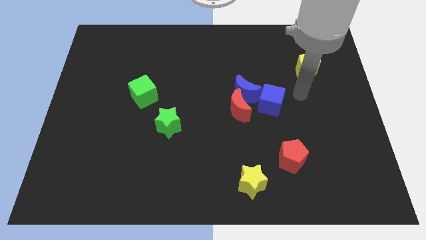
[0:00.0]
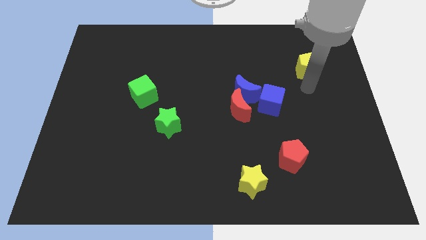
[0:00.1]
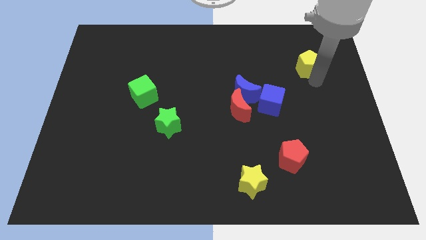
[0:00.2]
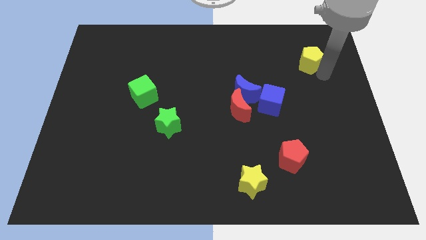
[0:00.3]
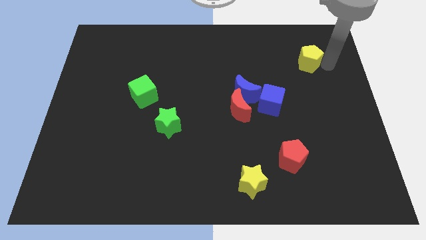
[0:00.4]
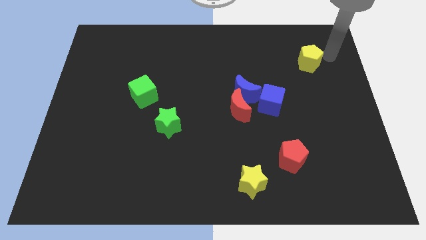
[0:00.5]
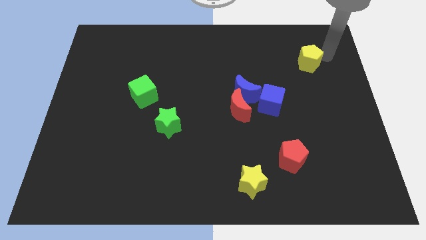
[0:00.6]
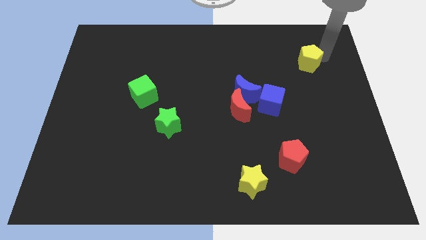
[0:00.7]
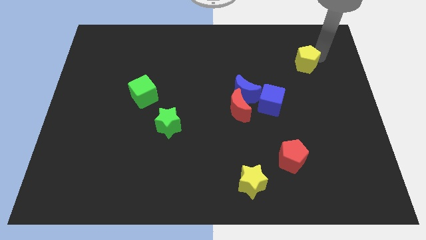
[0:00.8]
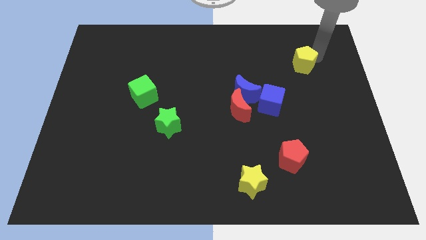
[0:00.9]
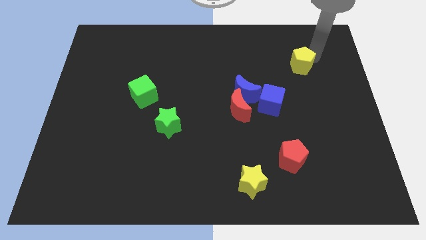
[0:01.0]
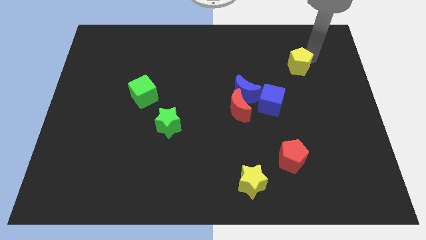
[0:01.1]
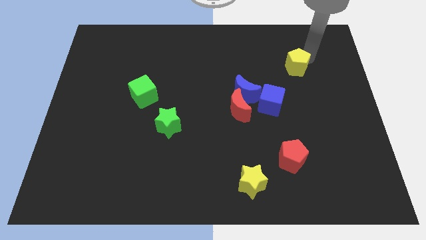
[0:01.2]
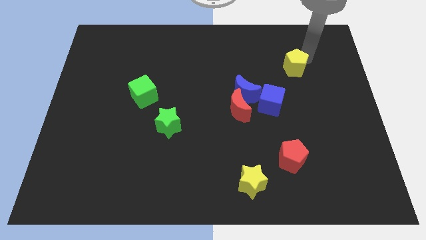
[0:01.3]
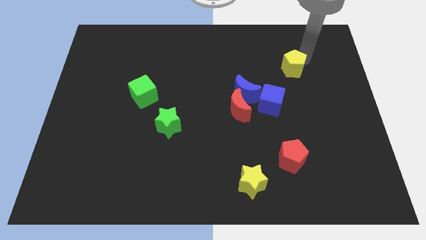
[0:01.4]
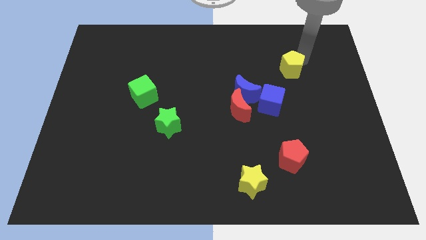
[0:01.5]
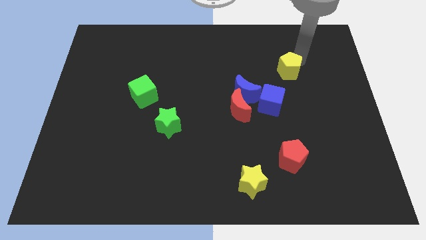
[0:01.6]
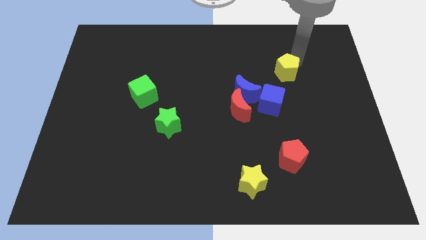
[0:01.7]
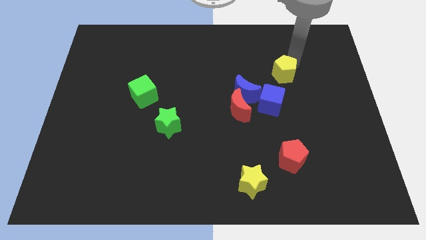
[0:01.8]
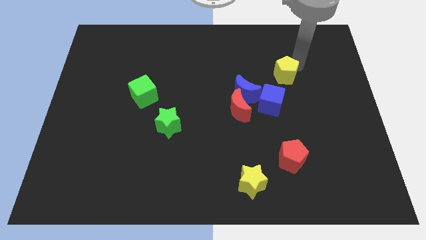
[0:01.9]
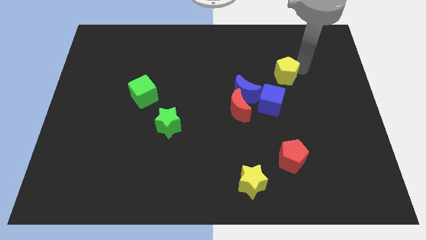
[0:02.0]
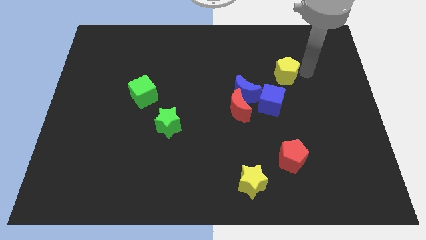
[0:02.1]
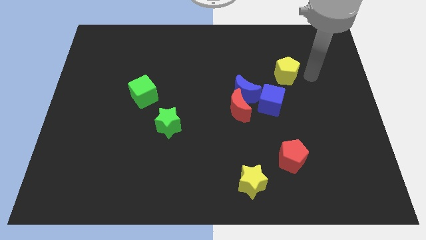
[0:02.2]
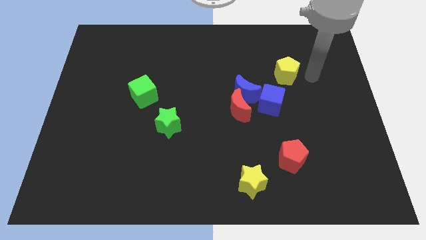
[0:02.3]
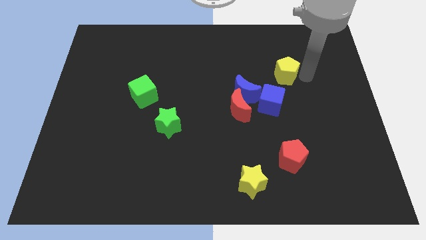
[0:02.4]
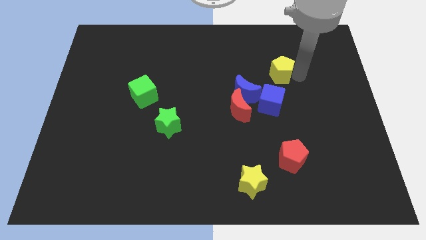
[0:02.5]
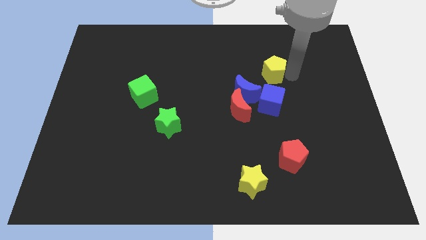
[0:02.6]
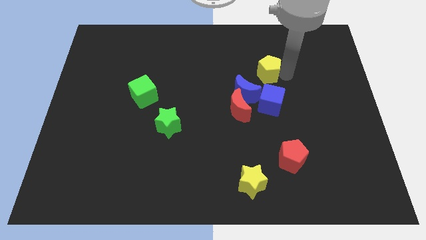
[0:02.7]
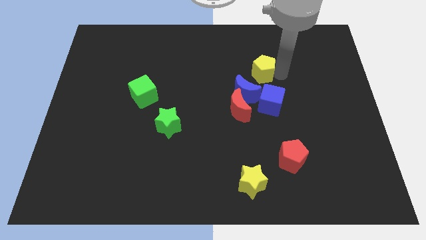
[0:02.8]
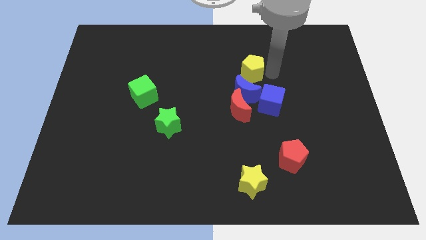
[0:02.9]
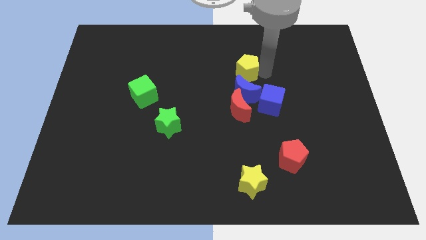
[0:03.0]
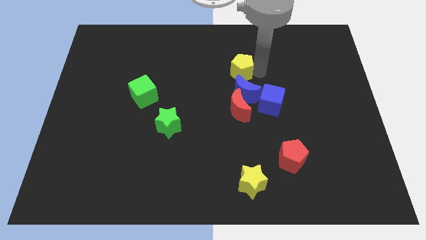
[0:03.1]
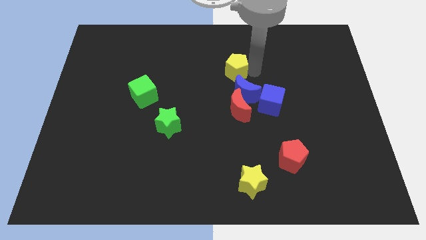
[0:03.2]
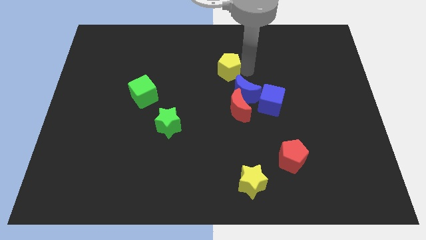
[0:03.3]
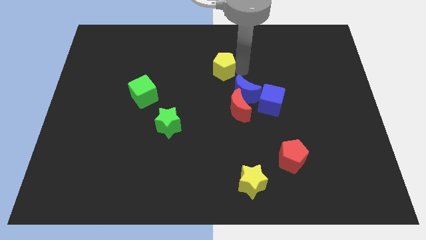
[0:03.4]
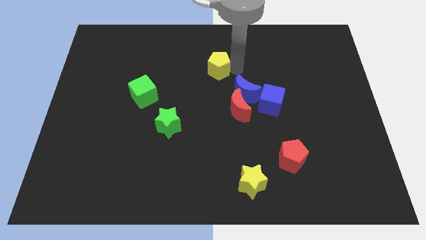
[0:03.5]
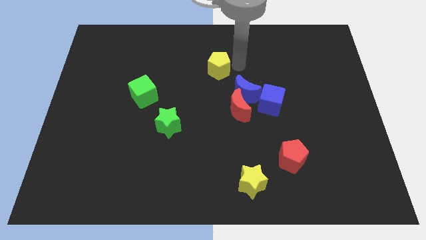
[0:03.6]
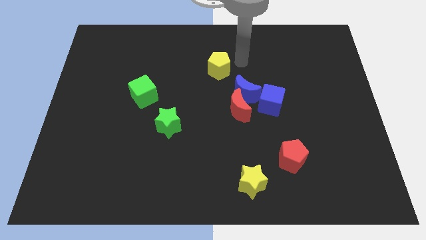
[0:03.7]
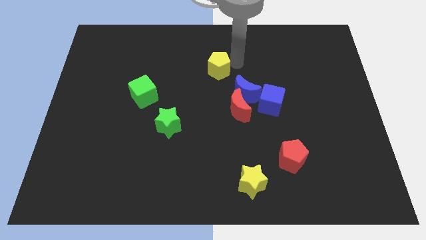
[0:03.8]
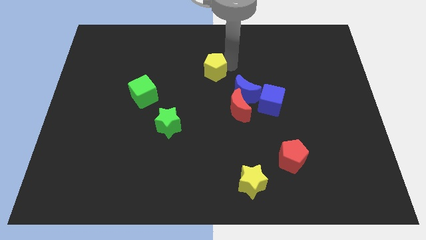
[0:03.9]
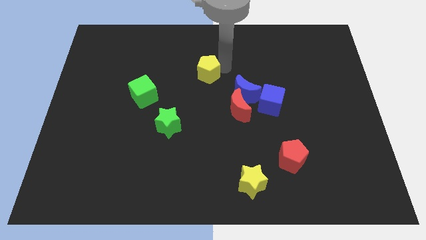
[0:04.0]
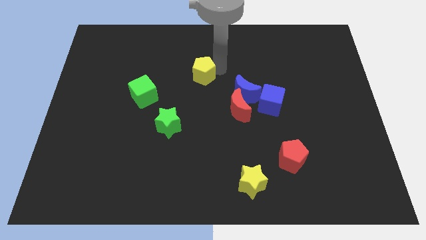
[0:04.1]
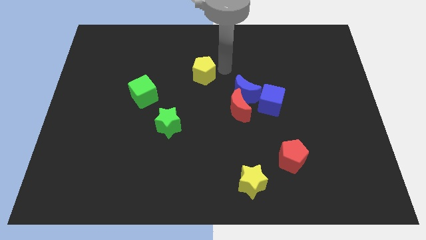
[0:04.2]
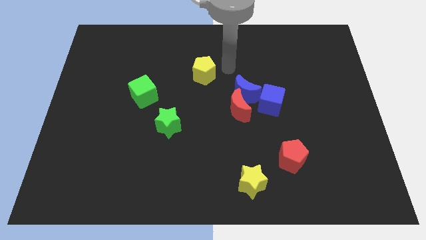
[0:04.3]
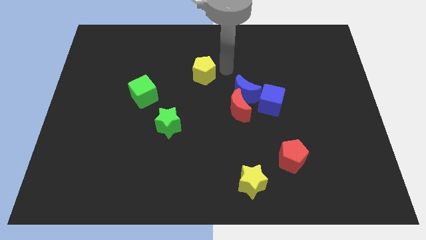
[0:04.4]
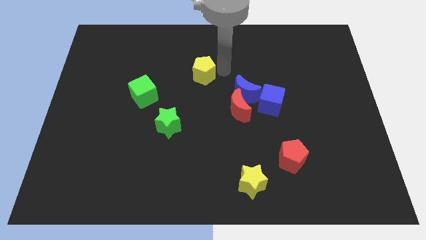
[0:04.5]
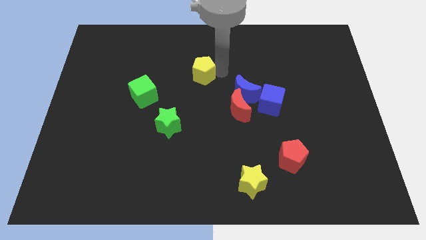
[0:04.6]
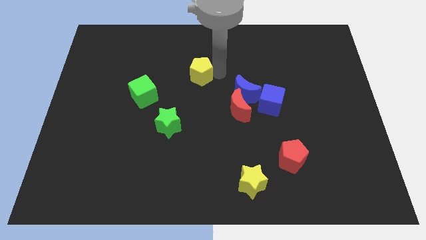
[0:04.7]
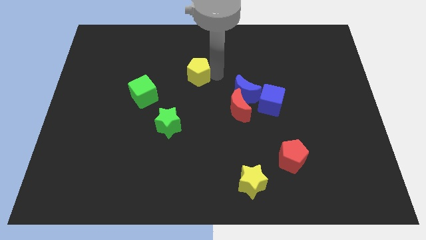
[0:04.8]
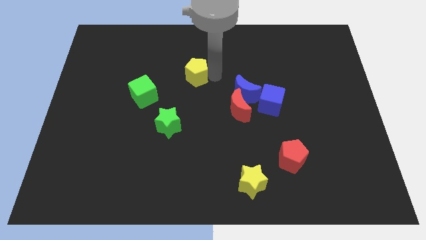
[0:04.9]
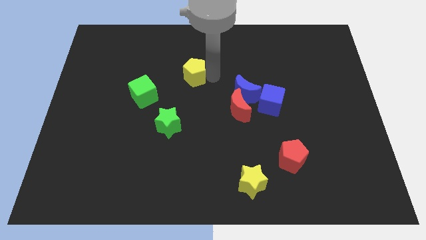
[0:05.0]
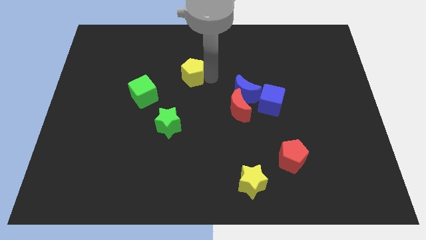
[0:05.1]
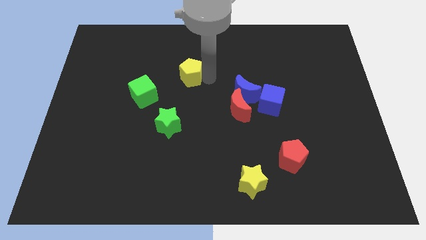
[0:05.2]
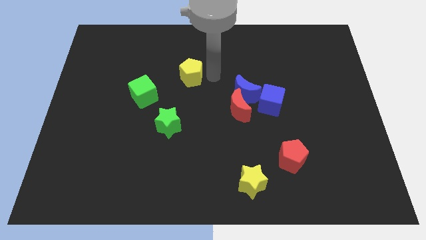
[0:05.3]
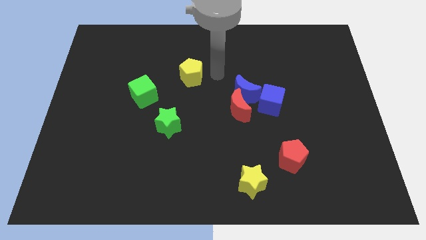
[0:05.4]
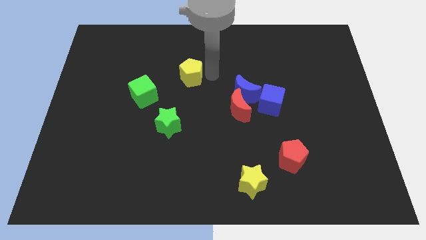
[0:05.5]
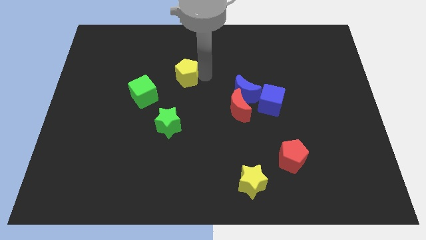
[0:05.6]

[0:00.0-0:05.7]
put the yellow pentagon diagonally up and to the right of the green cube

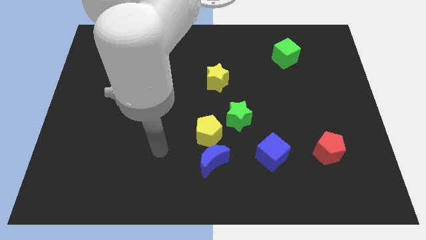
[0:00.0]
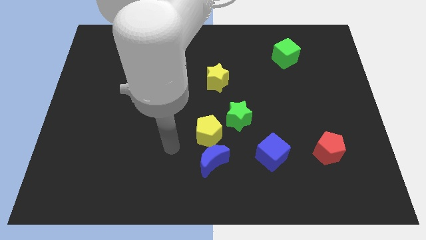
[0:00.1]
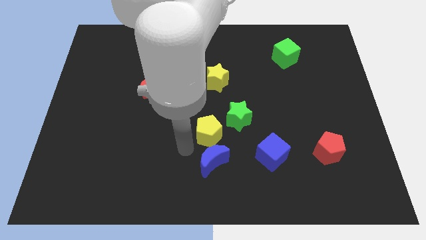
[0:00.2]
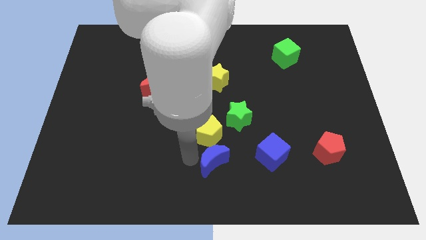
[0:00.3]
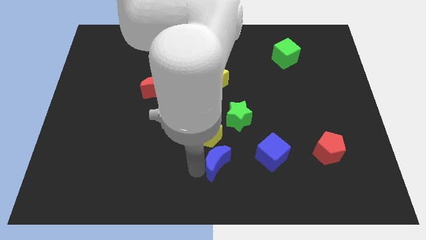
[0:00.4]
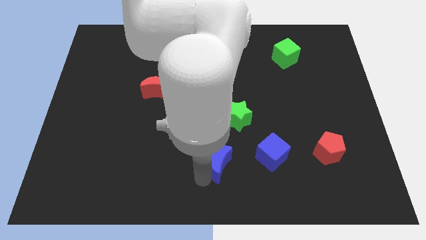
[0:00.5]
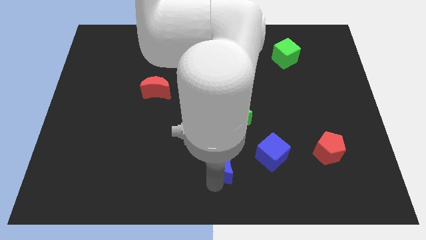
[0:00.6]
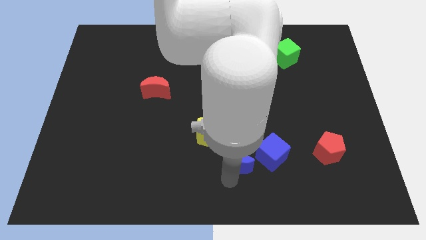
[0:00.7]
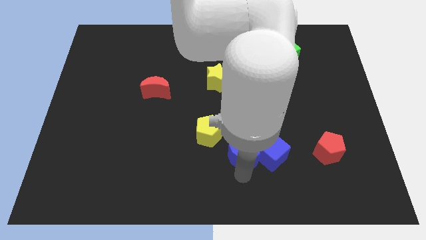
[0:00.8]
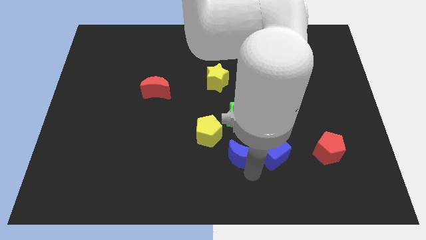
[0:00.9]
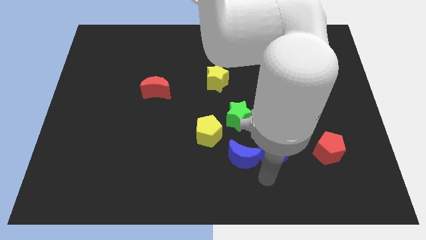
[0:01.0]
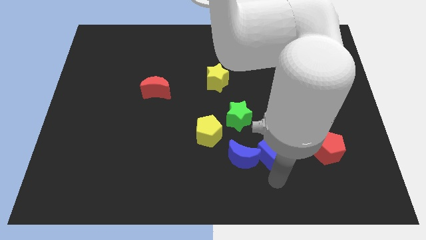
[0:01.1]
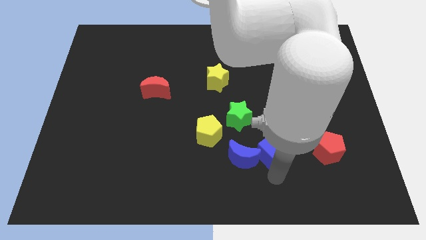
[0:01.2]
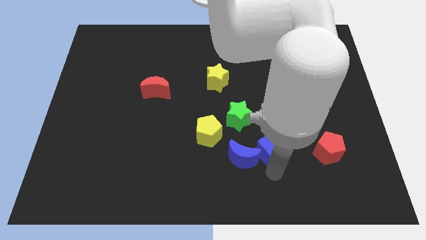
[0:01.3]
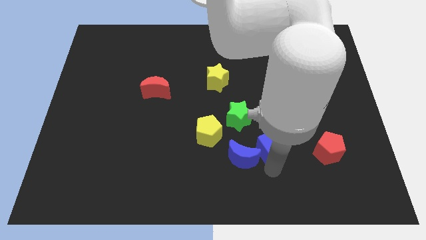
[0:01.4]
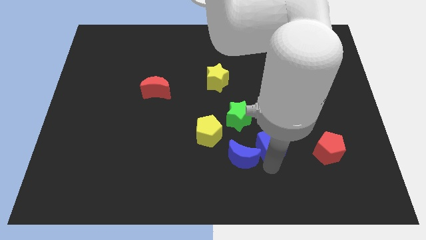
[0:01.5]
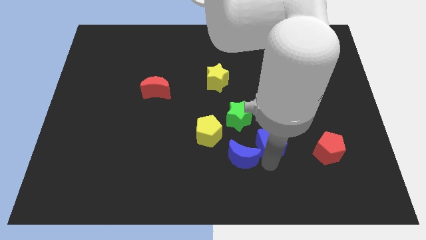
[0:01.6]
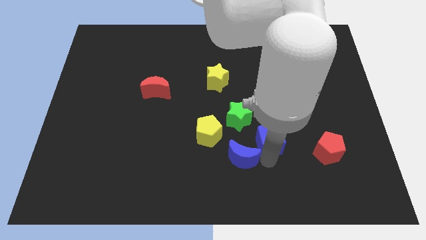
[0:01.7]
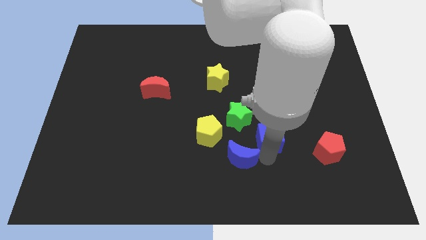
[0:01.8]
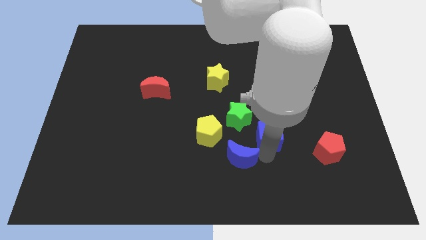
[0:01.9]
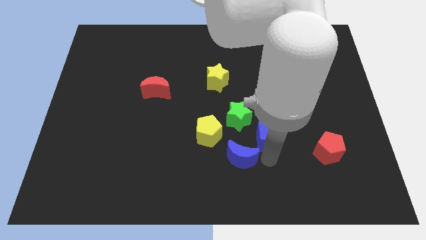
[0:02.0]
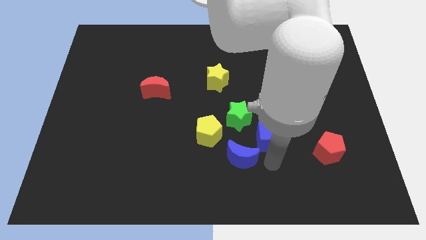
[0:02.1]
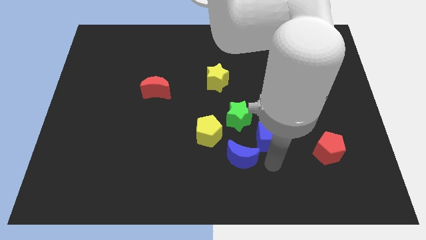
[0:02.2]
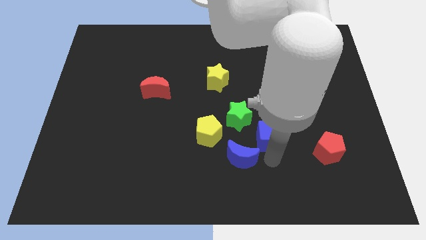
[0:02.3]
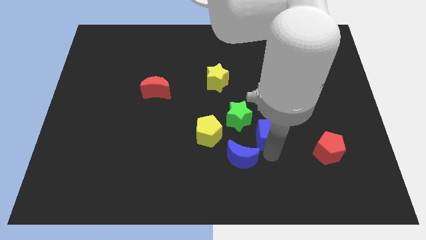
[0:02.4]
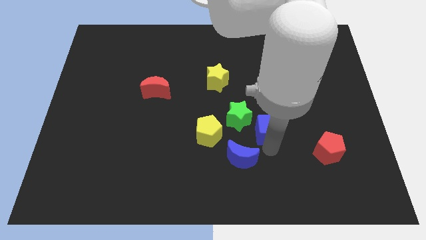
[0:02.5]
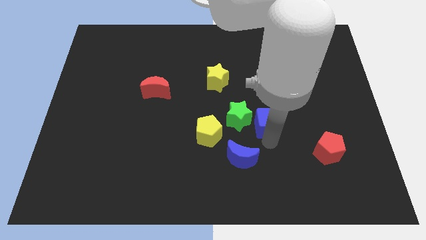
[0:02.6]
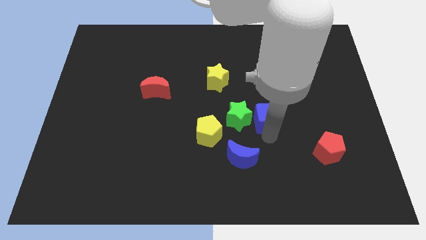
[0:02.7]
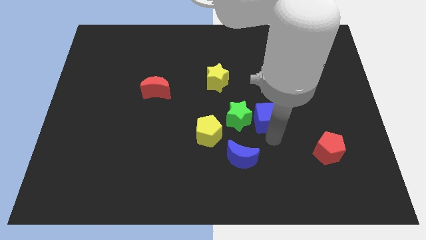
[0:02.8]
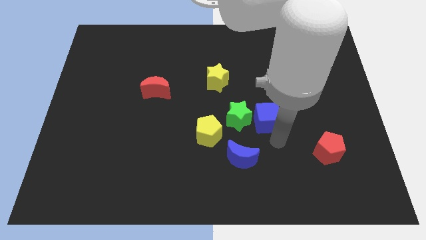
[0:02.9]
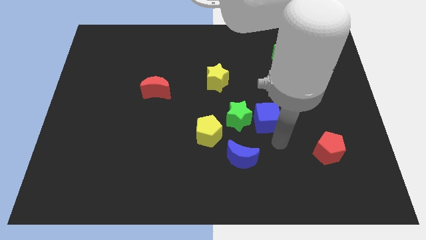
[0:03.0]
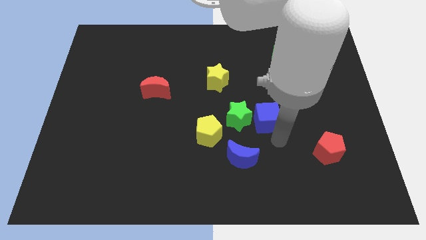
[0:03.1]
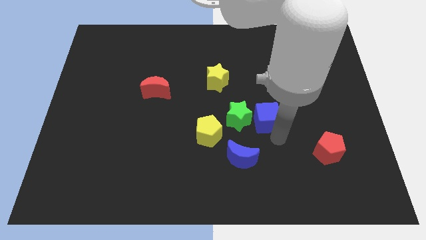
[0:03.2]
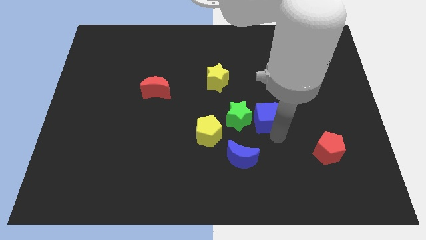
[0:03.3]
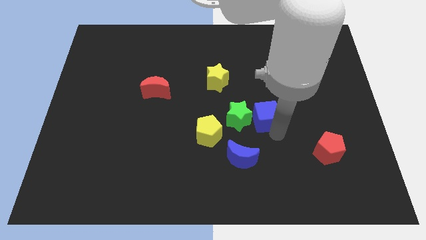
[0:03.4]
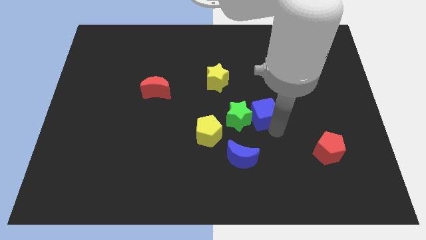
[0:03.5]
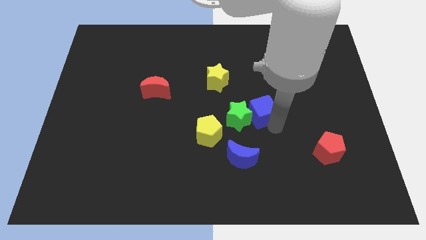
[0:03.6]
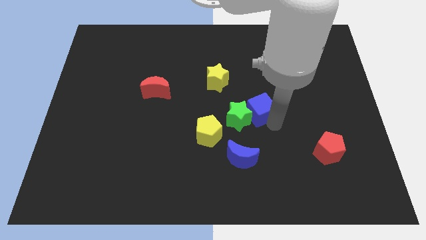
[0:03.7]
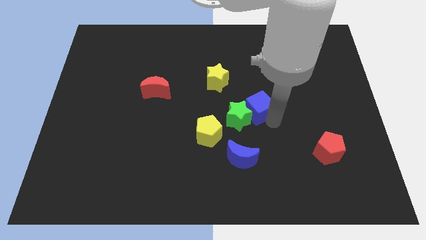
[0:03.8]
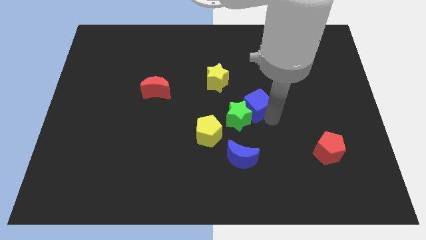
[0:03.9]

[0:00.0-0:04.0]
move the blue cube to the bottom right side of the yellow star
